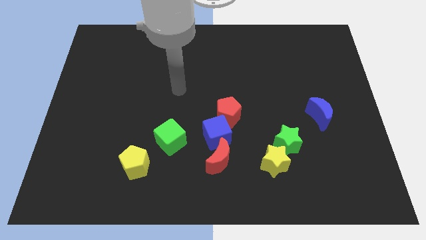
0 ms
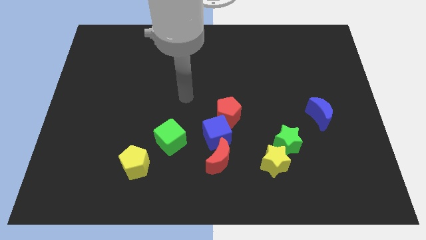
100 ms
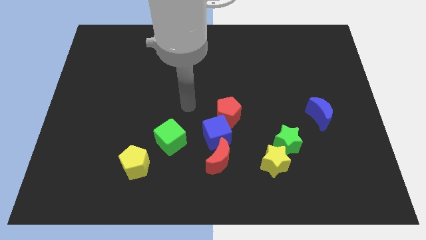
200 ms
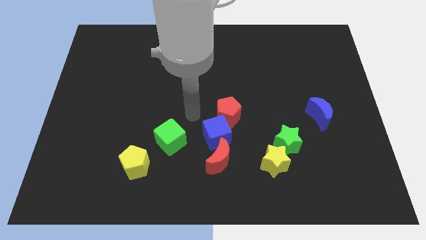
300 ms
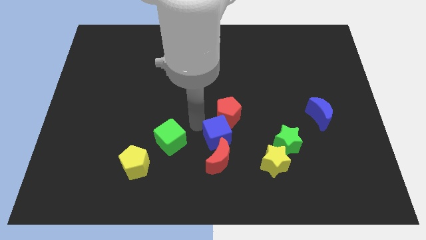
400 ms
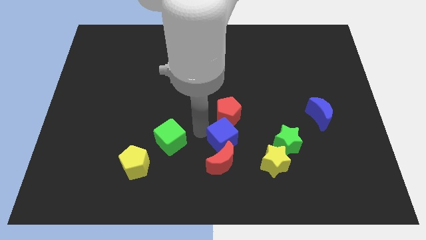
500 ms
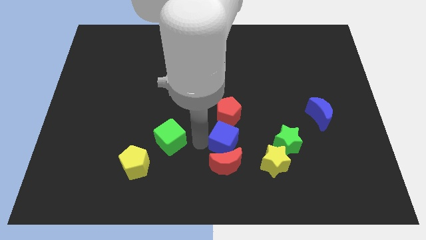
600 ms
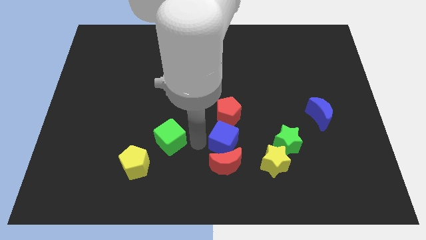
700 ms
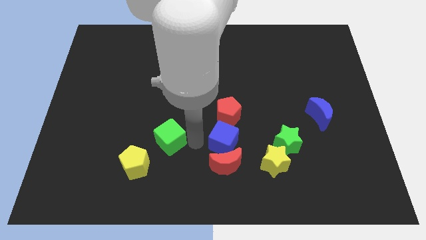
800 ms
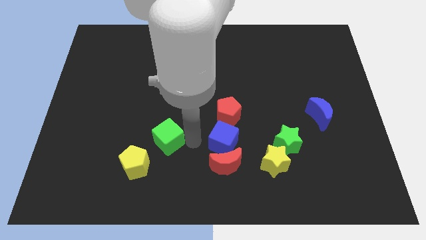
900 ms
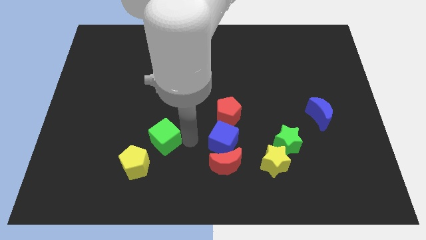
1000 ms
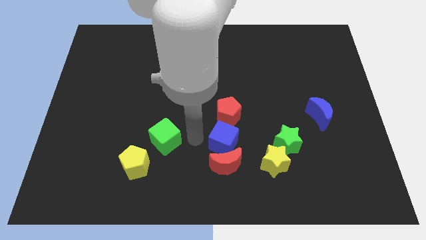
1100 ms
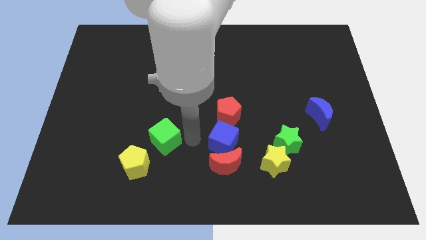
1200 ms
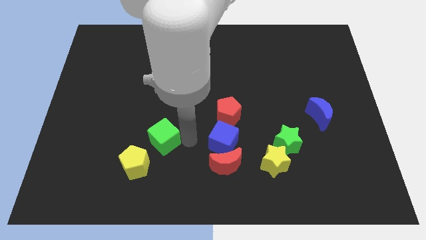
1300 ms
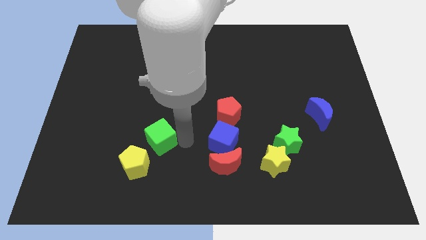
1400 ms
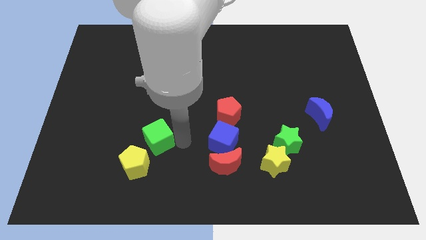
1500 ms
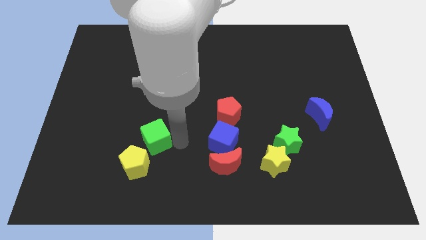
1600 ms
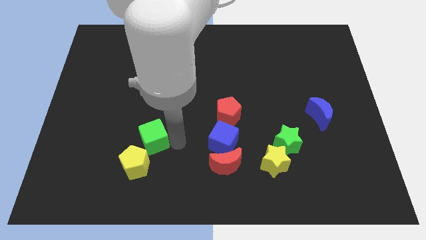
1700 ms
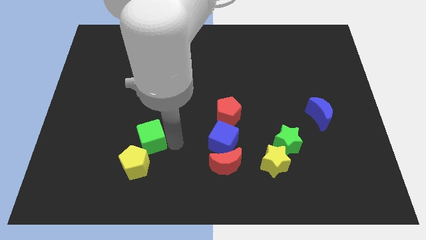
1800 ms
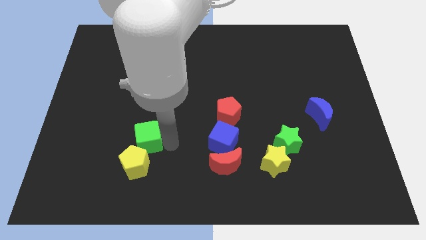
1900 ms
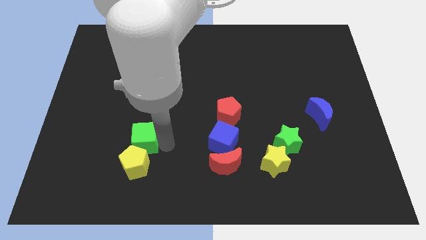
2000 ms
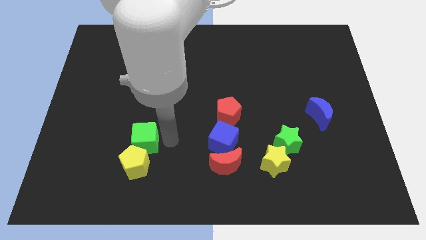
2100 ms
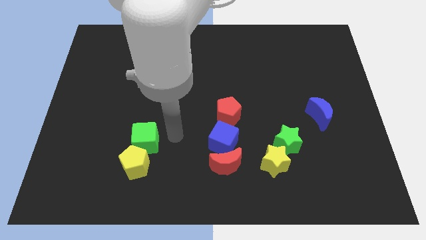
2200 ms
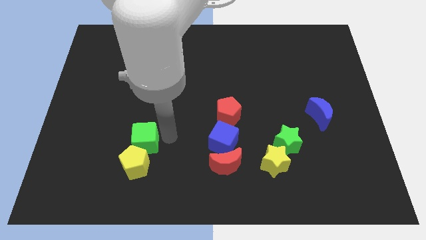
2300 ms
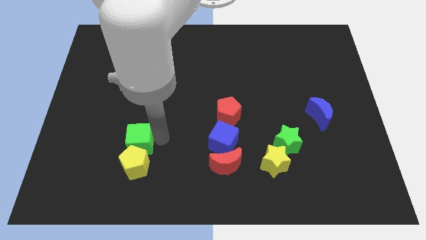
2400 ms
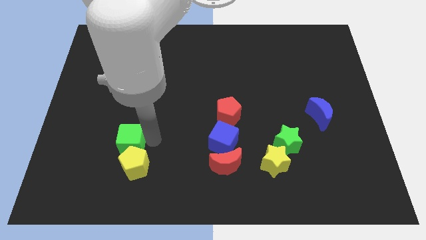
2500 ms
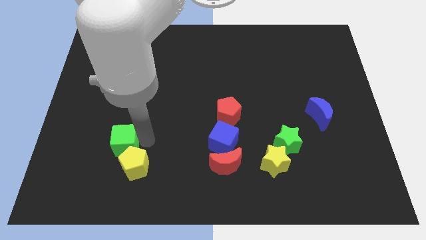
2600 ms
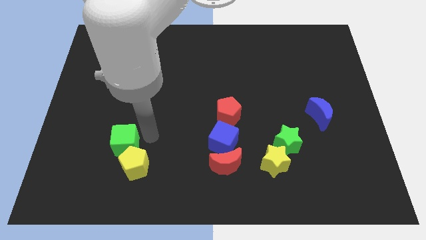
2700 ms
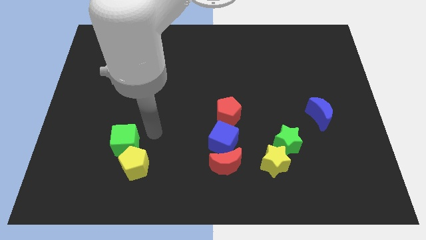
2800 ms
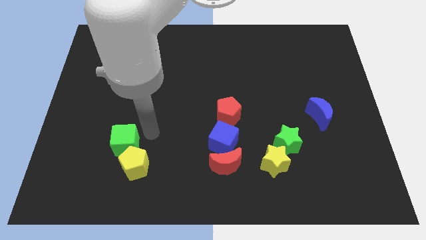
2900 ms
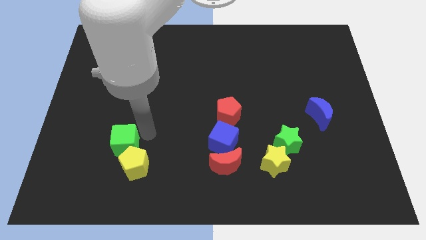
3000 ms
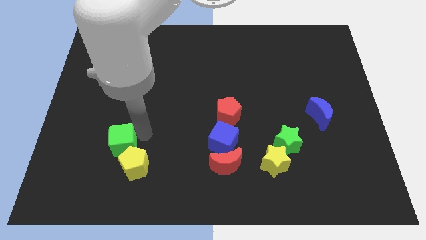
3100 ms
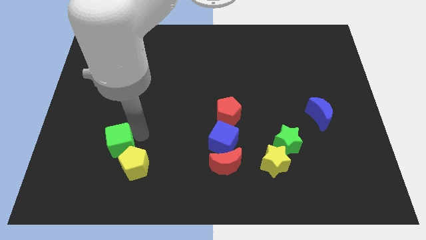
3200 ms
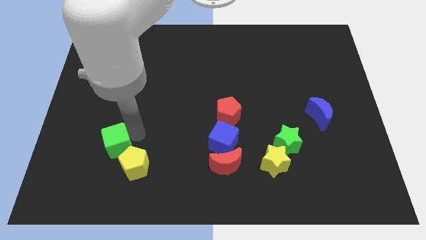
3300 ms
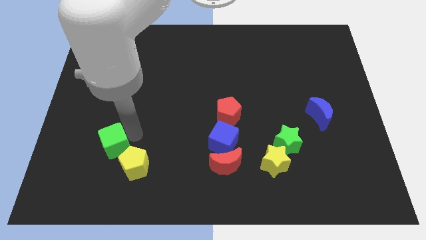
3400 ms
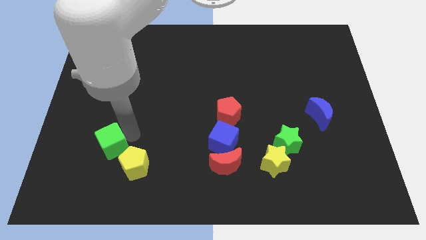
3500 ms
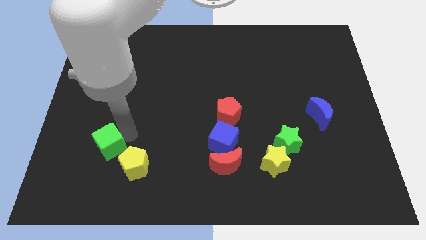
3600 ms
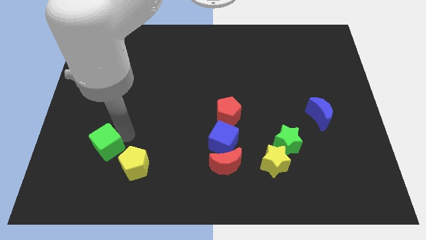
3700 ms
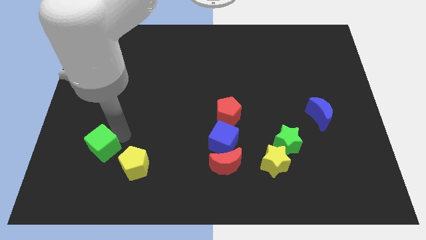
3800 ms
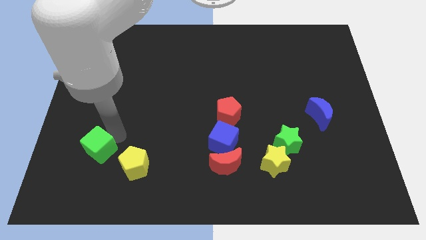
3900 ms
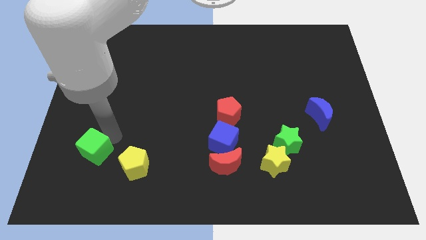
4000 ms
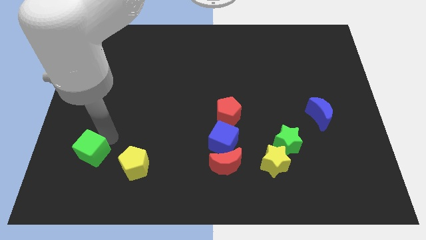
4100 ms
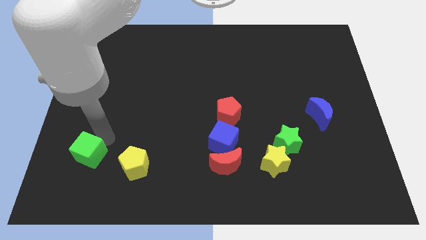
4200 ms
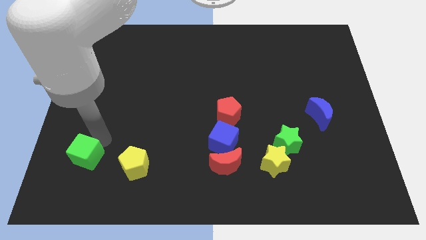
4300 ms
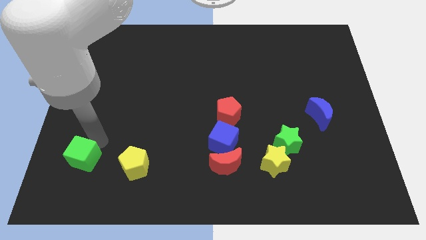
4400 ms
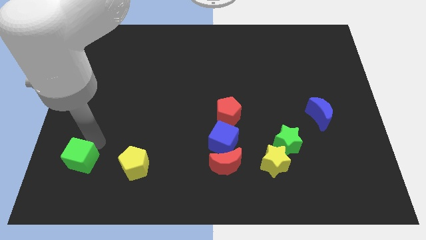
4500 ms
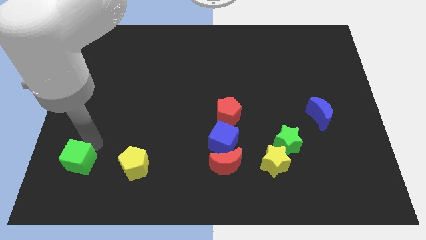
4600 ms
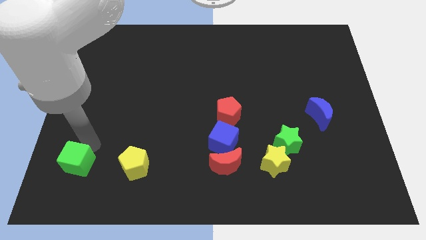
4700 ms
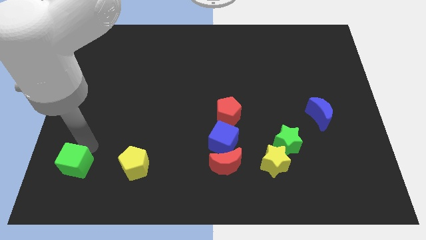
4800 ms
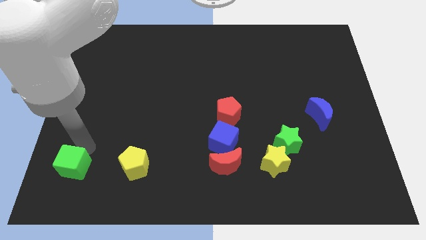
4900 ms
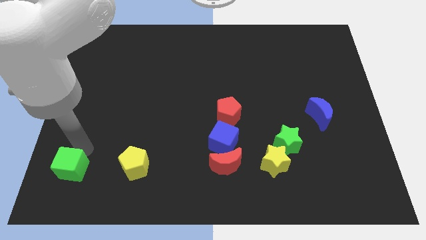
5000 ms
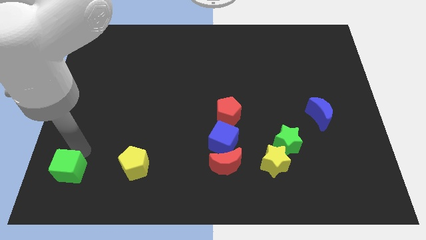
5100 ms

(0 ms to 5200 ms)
push the green cube to the bottom left of the board

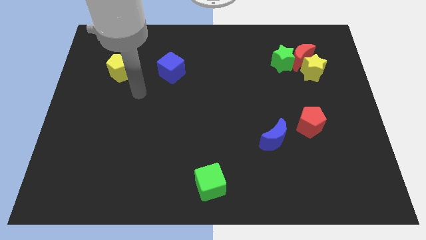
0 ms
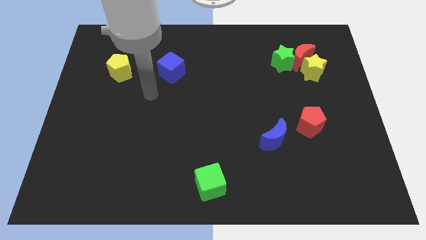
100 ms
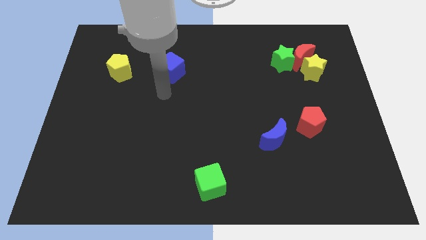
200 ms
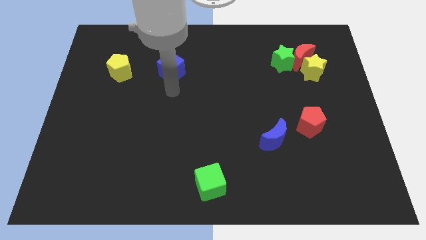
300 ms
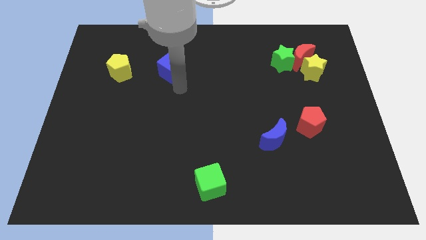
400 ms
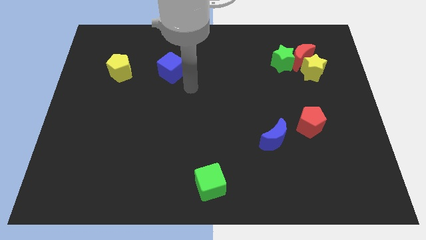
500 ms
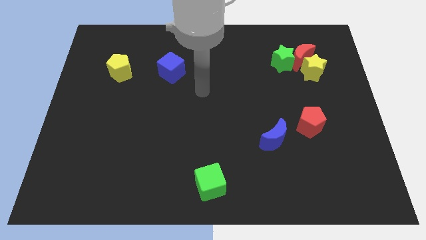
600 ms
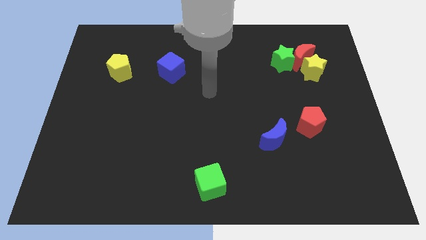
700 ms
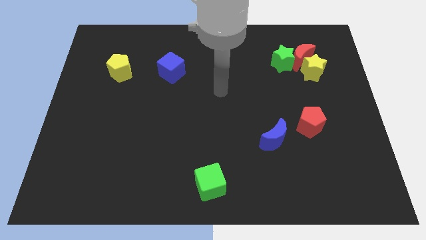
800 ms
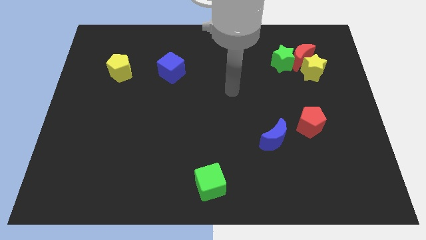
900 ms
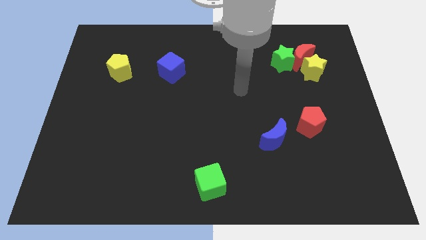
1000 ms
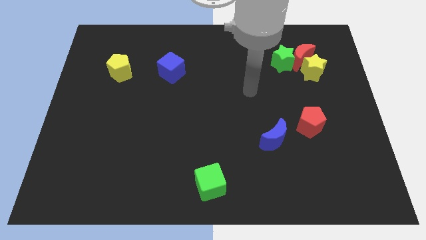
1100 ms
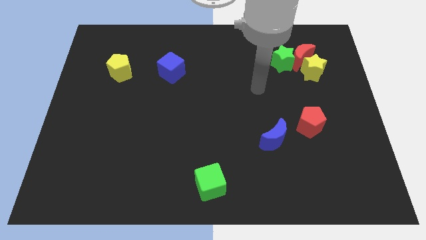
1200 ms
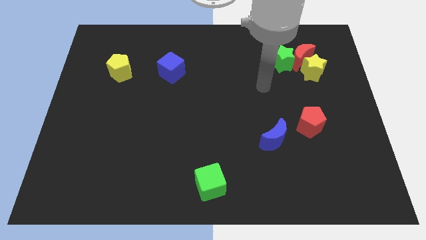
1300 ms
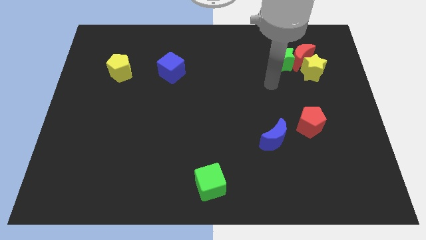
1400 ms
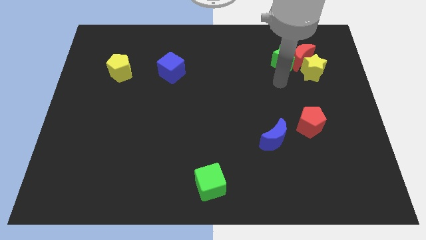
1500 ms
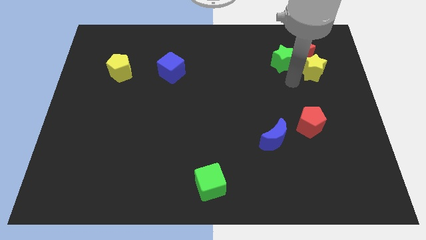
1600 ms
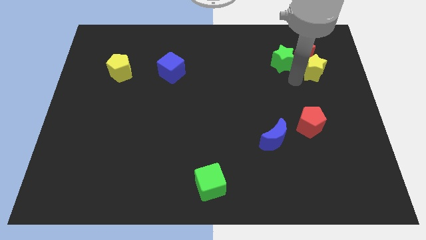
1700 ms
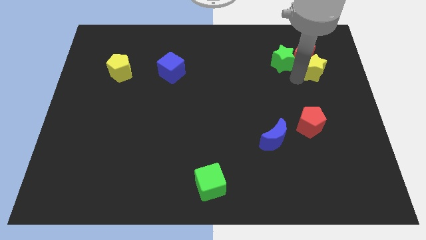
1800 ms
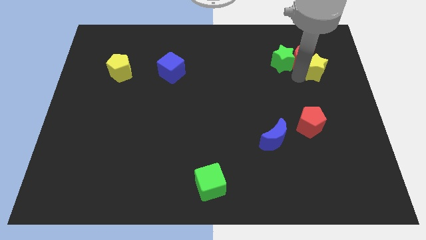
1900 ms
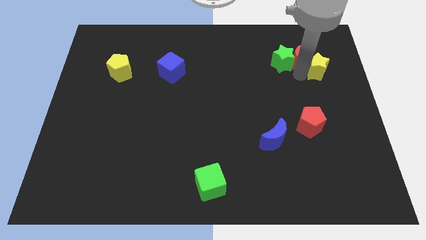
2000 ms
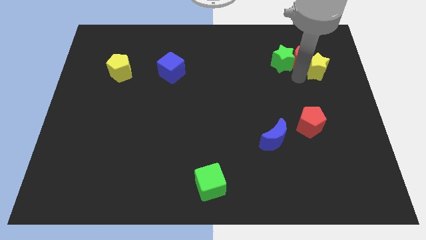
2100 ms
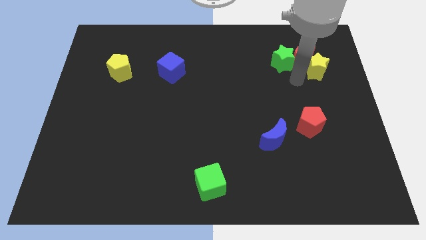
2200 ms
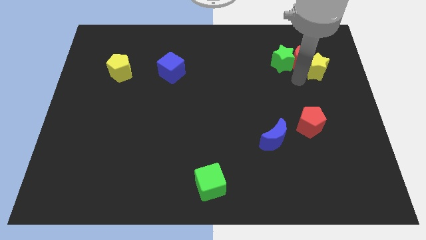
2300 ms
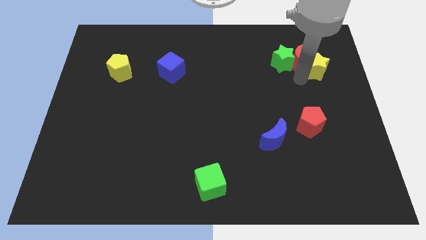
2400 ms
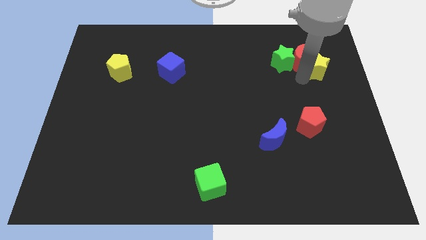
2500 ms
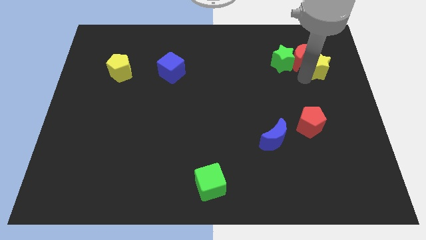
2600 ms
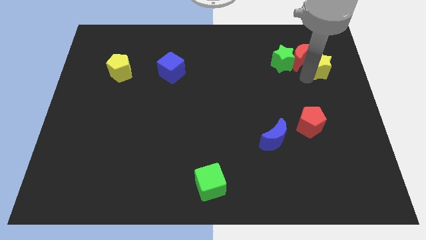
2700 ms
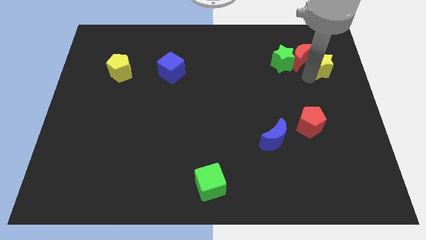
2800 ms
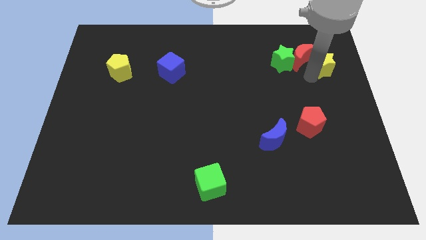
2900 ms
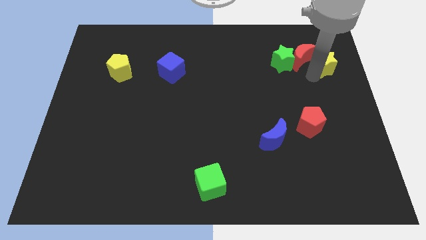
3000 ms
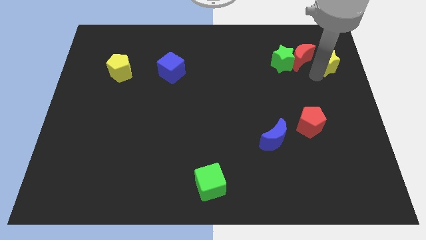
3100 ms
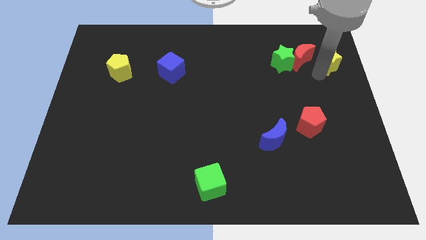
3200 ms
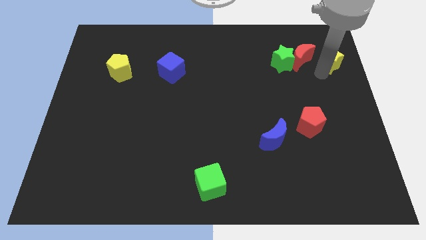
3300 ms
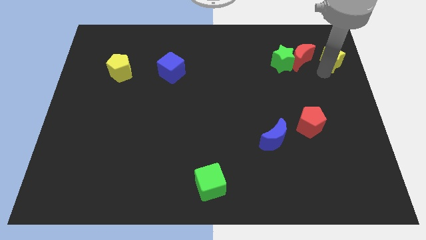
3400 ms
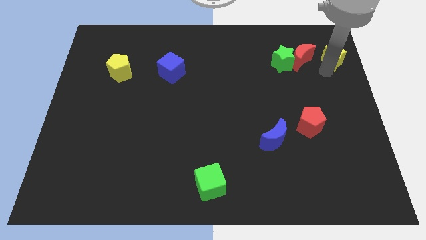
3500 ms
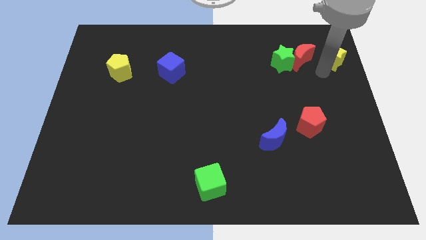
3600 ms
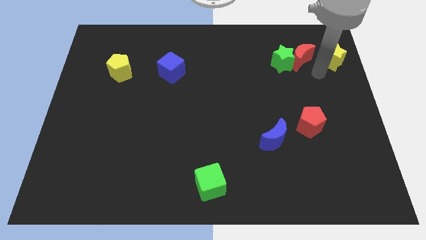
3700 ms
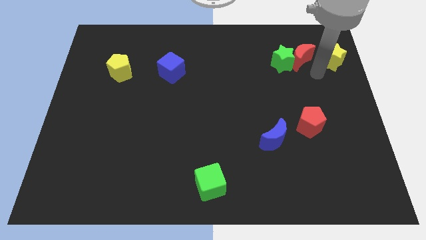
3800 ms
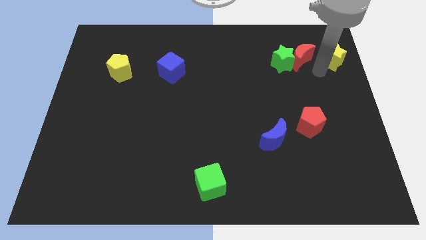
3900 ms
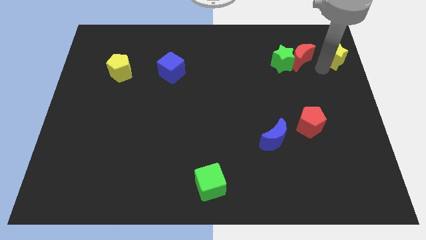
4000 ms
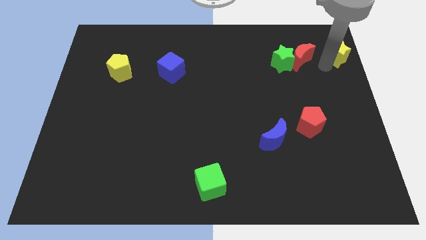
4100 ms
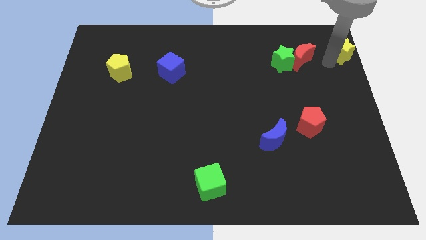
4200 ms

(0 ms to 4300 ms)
put the yellow star to the top right
